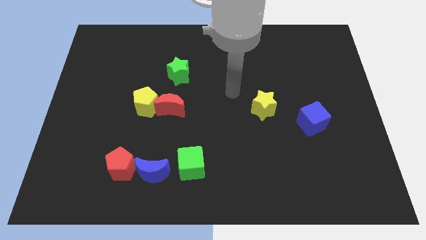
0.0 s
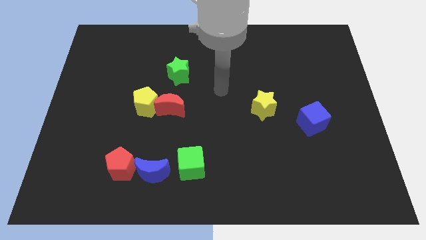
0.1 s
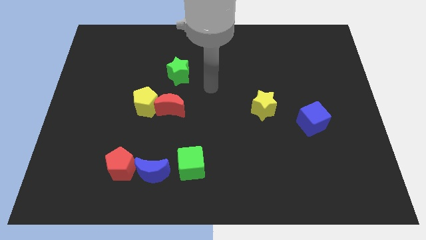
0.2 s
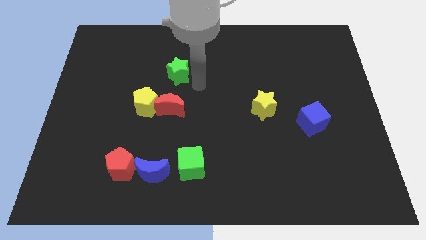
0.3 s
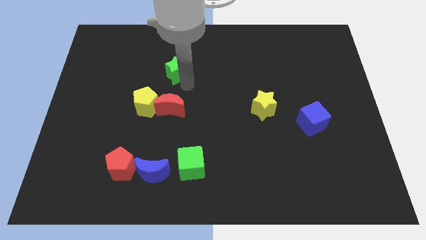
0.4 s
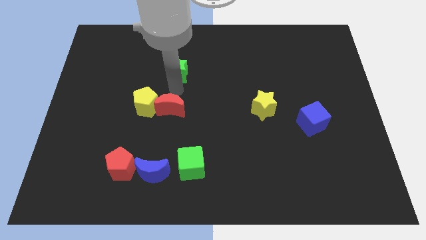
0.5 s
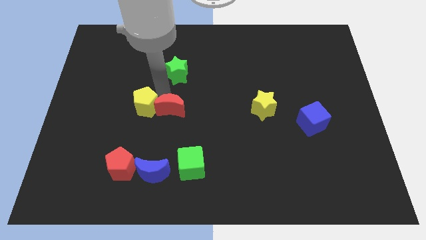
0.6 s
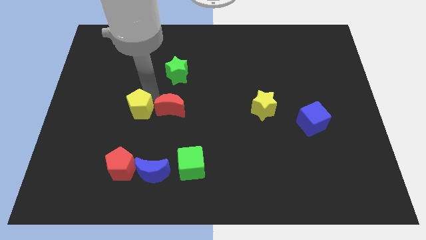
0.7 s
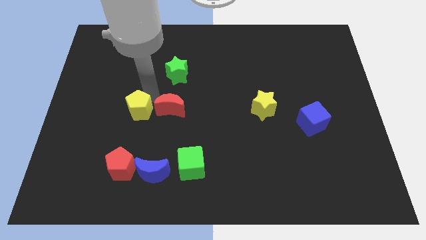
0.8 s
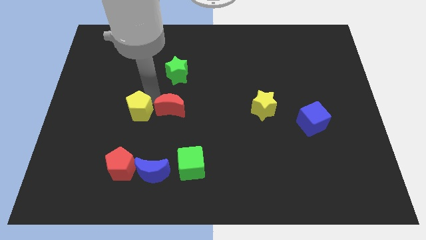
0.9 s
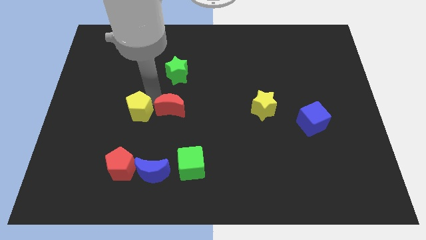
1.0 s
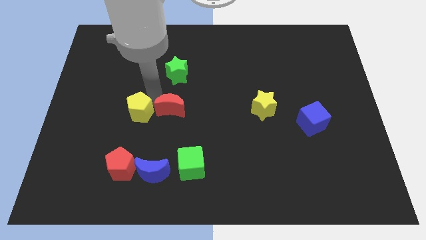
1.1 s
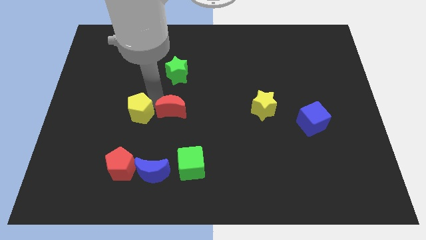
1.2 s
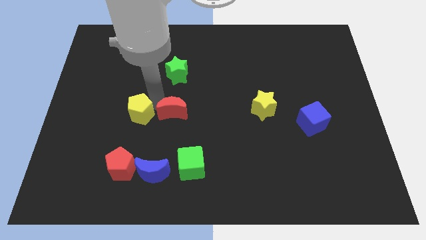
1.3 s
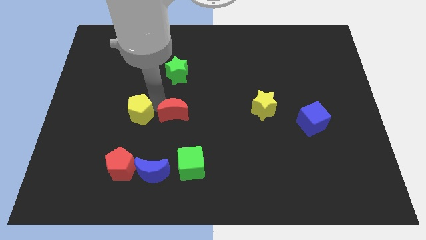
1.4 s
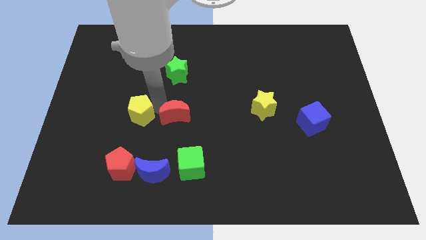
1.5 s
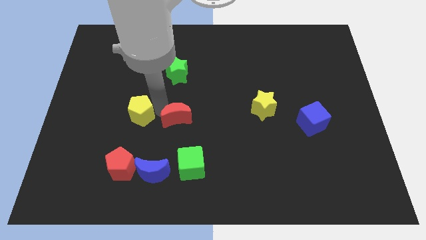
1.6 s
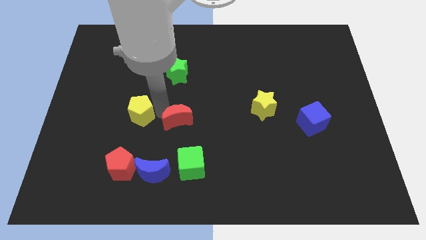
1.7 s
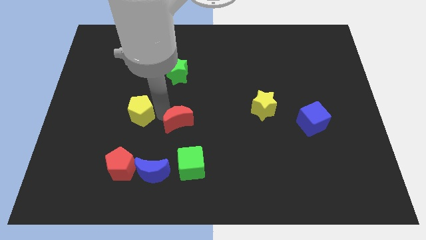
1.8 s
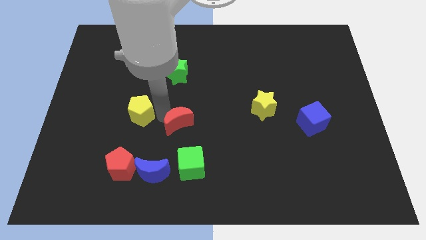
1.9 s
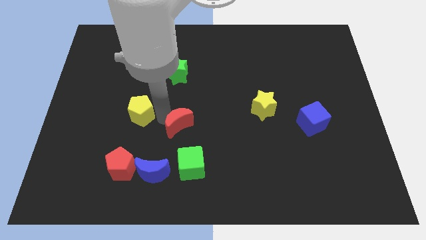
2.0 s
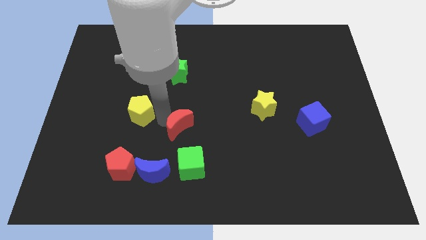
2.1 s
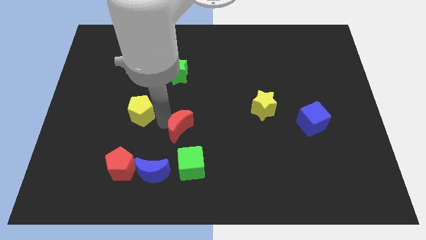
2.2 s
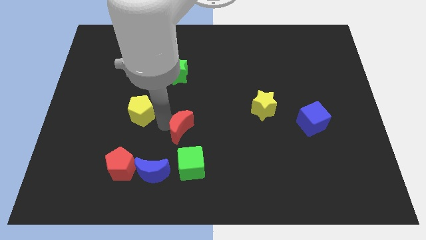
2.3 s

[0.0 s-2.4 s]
move the red moon away from the yellow pentagon

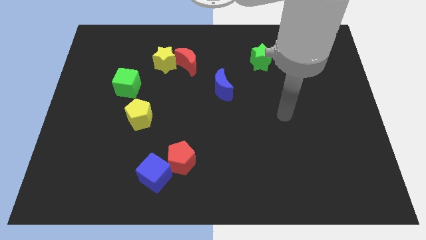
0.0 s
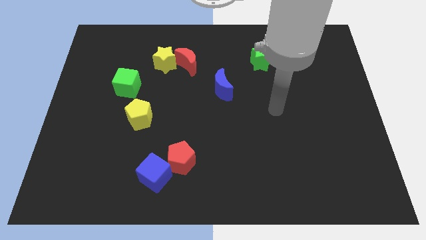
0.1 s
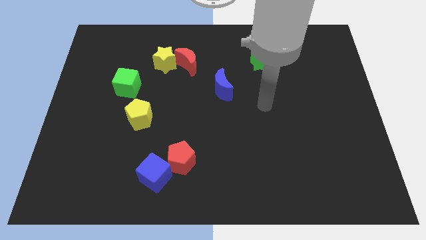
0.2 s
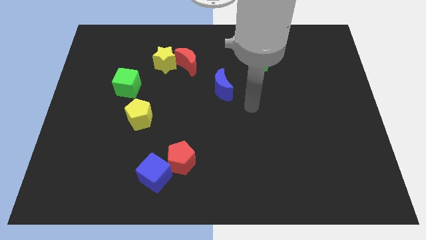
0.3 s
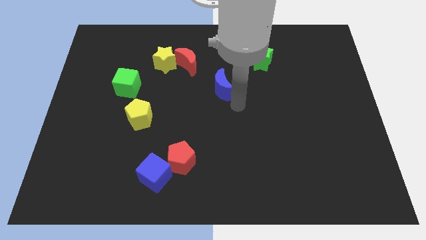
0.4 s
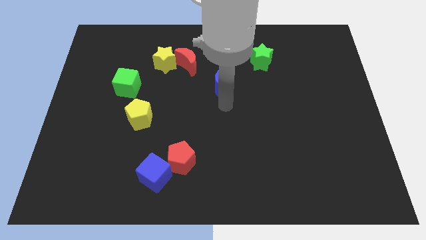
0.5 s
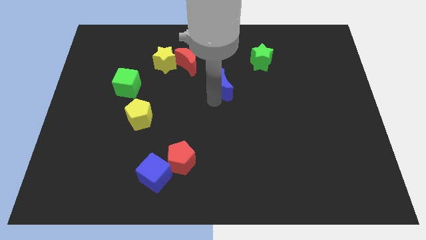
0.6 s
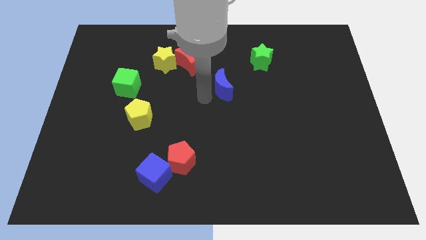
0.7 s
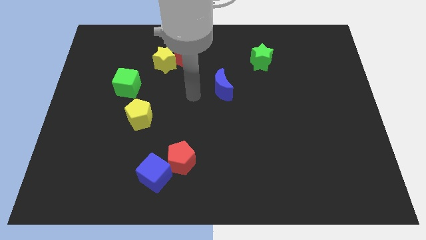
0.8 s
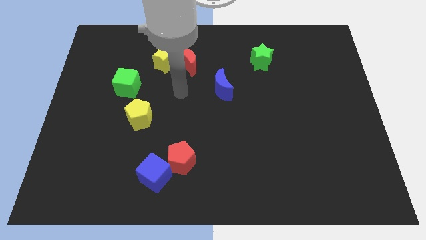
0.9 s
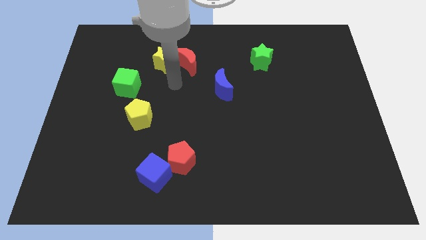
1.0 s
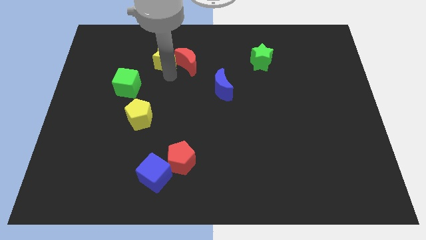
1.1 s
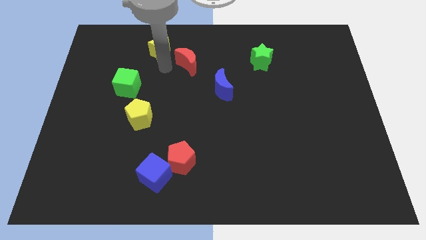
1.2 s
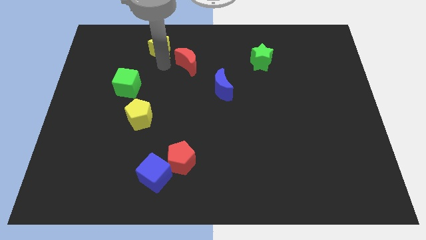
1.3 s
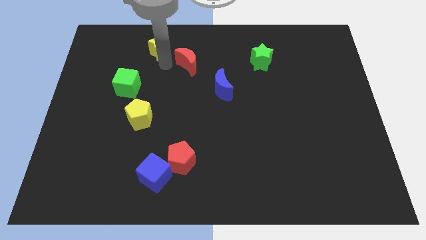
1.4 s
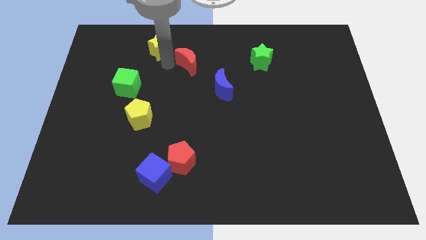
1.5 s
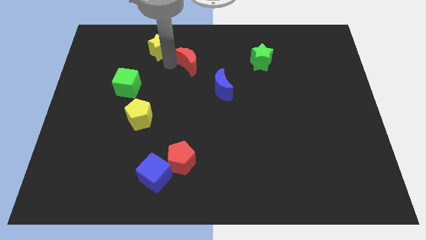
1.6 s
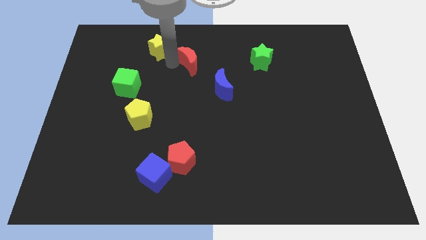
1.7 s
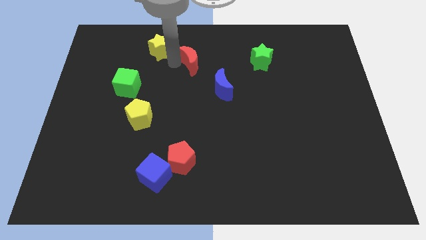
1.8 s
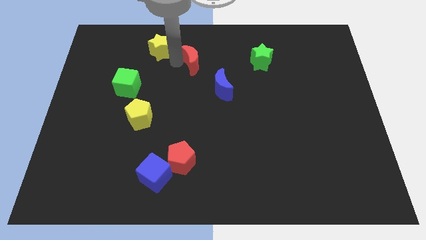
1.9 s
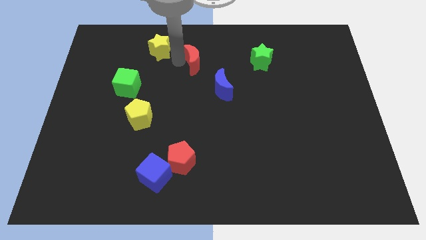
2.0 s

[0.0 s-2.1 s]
separate the red moon from the yellow star

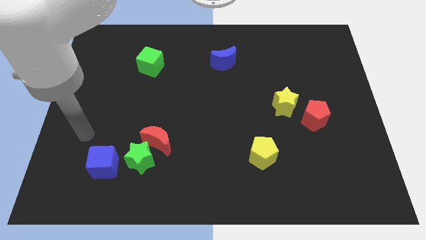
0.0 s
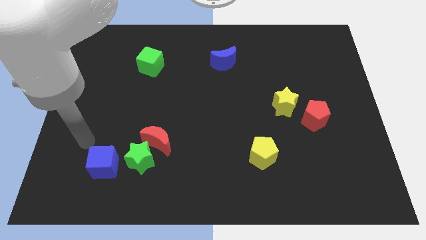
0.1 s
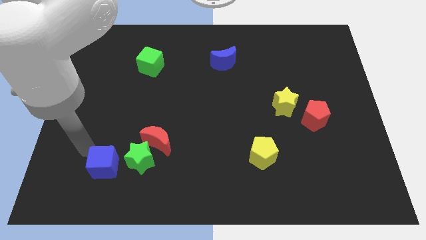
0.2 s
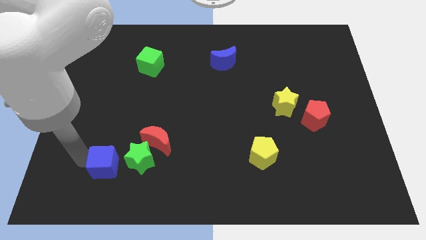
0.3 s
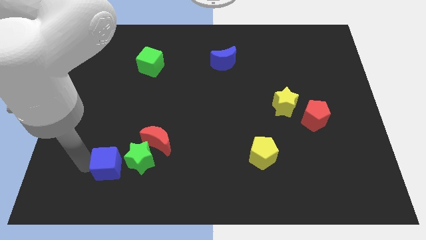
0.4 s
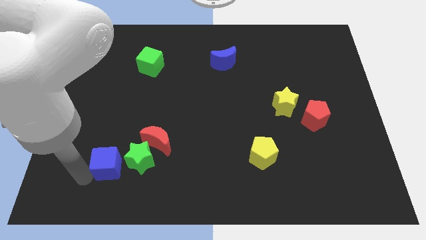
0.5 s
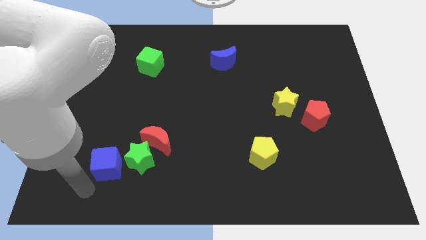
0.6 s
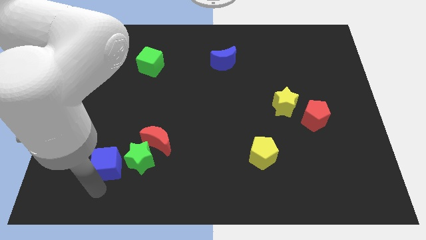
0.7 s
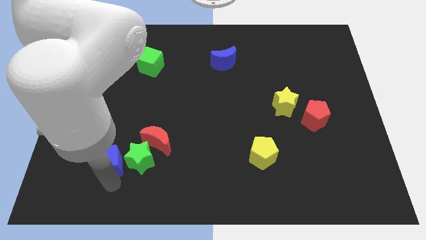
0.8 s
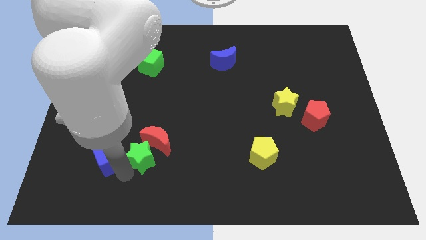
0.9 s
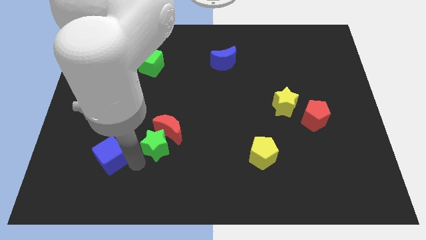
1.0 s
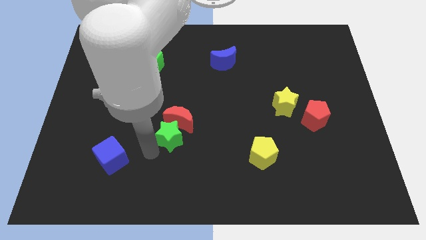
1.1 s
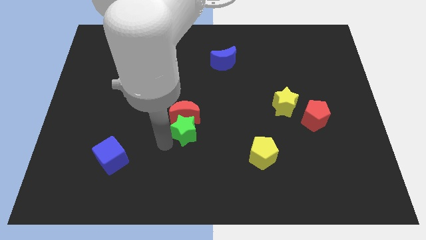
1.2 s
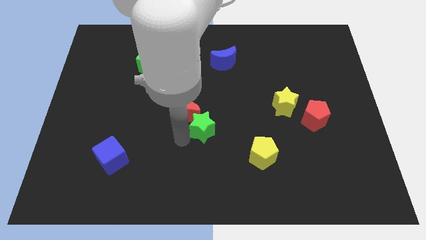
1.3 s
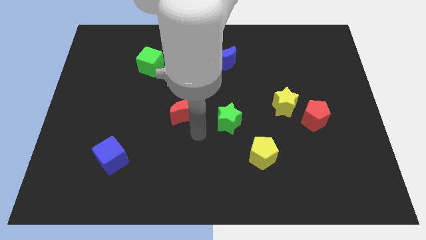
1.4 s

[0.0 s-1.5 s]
move the red moon away from the green star

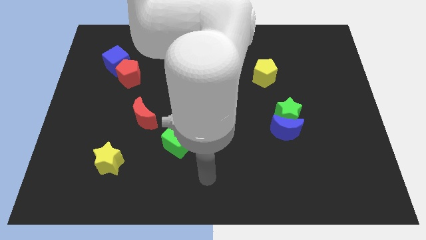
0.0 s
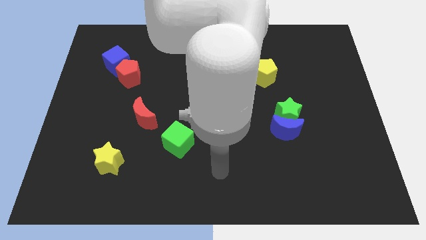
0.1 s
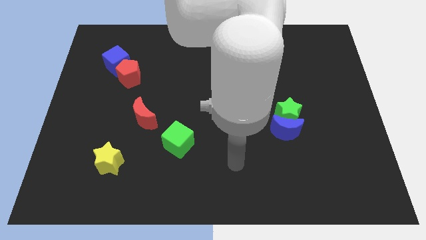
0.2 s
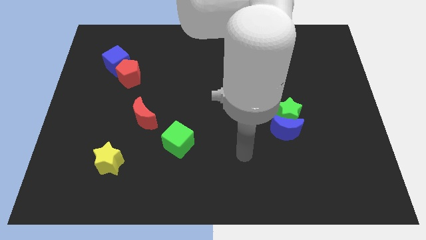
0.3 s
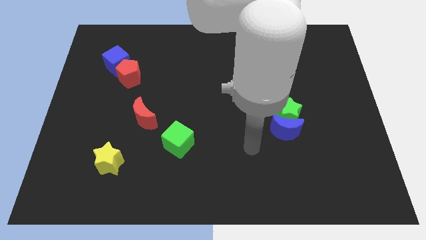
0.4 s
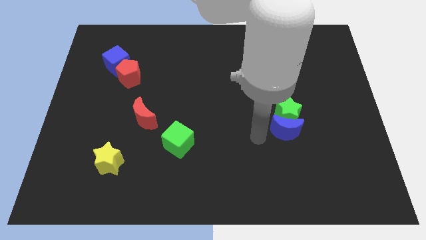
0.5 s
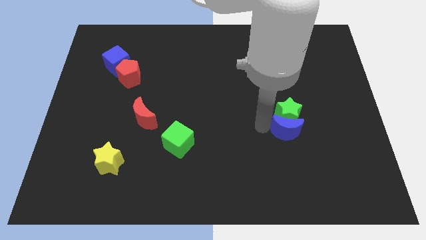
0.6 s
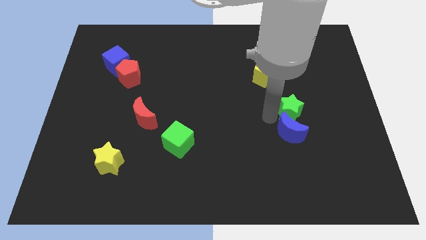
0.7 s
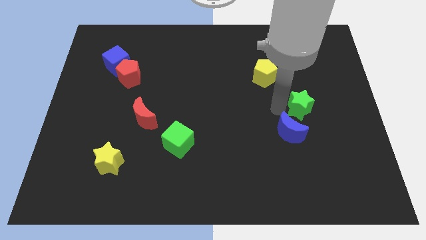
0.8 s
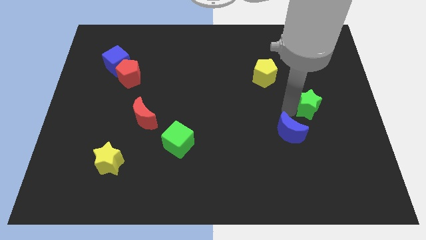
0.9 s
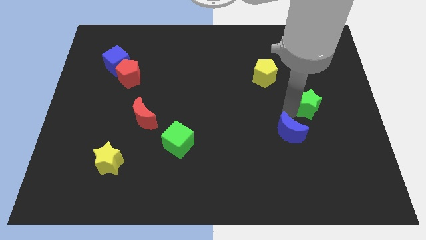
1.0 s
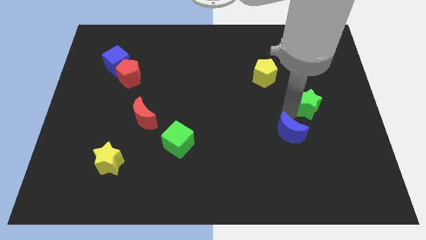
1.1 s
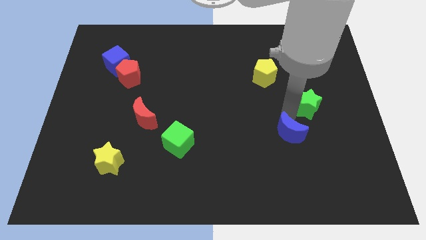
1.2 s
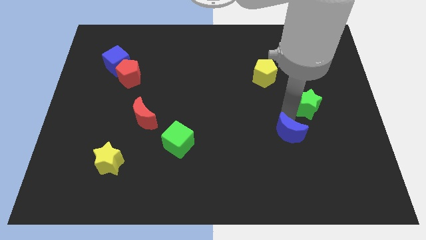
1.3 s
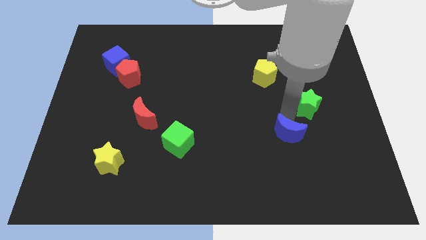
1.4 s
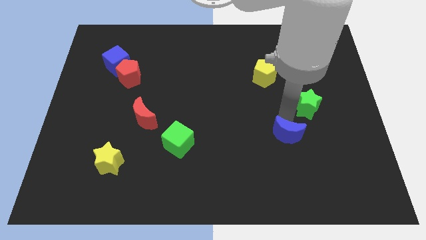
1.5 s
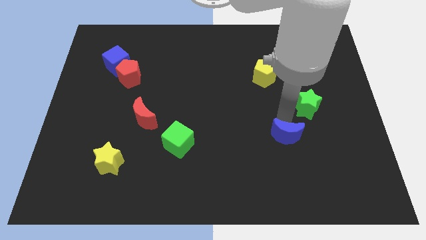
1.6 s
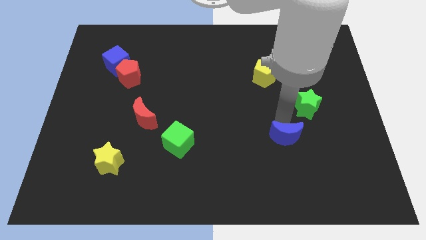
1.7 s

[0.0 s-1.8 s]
separate the blue moon from the green star

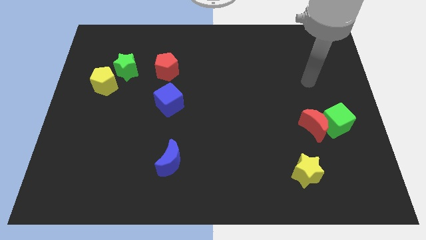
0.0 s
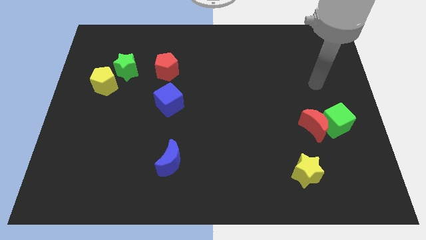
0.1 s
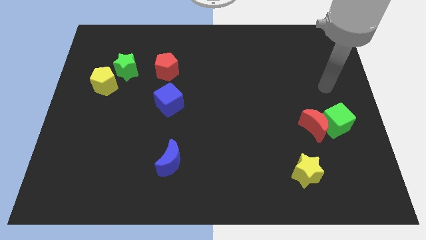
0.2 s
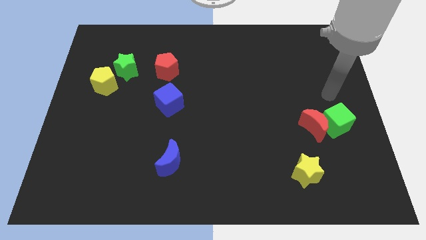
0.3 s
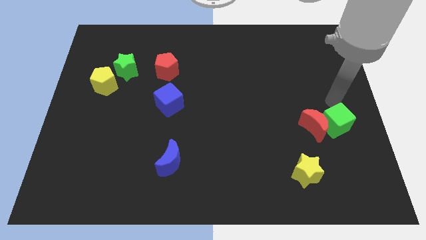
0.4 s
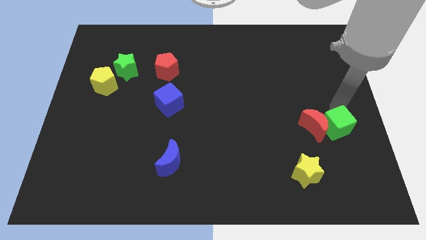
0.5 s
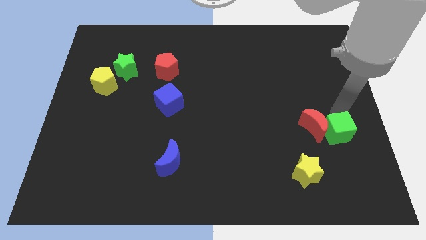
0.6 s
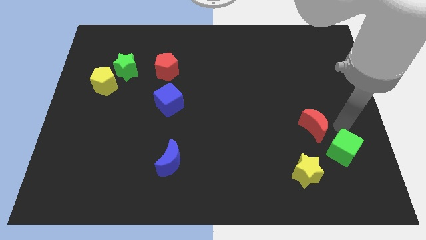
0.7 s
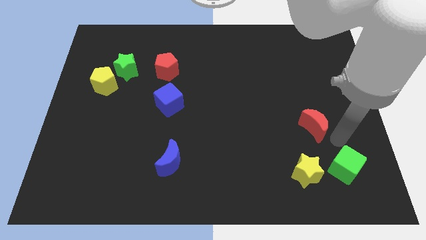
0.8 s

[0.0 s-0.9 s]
pull the red moon apart from the green cube

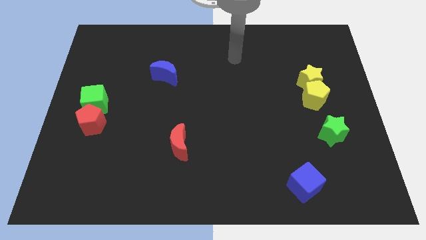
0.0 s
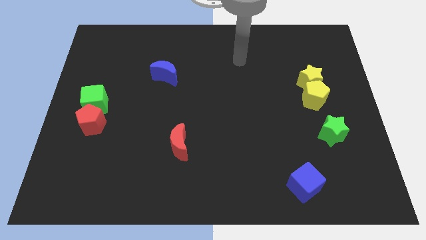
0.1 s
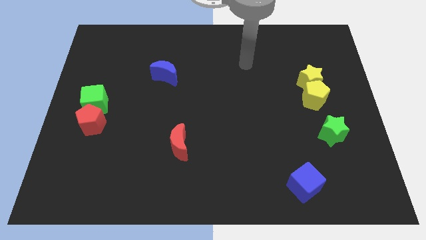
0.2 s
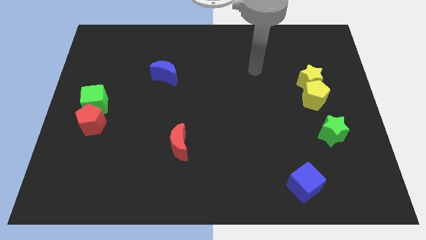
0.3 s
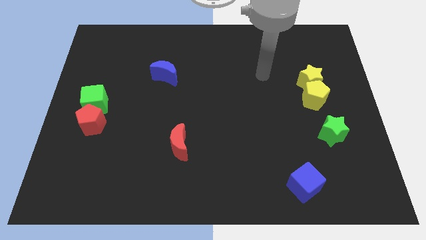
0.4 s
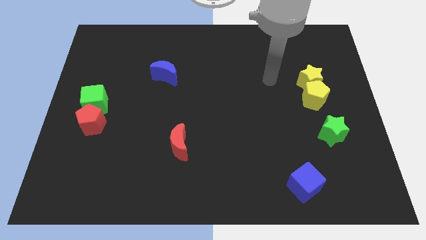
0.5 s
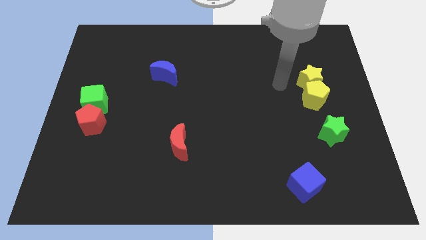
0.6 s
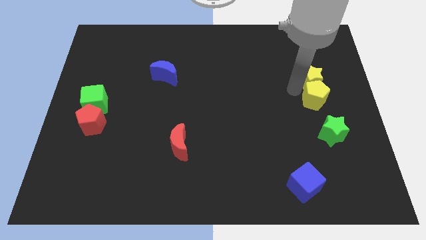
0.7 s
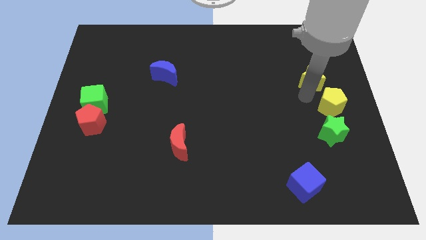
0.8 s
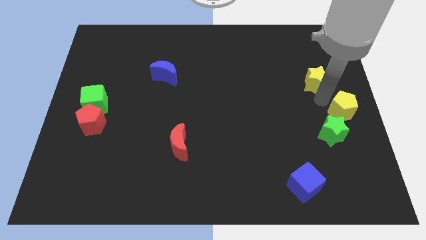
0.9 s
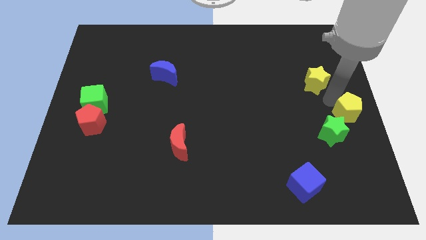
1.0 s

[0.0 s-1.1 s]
move the yellow star away from the yellow pentagon
